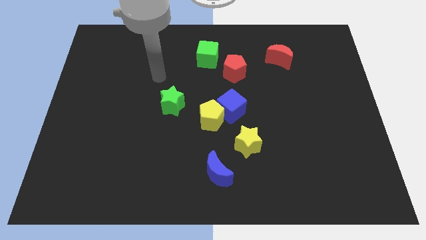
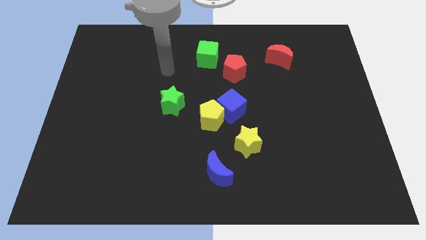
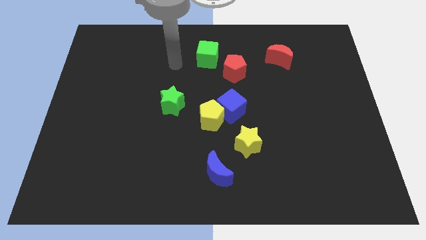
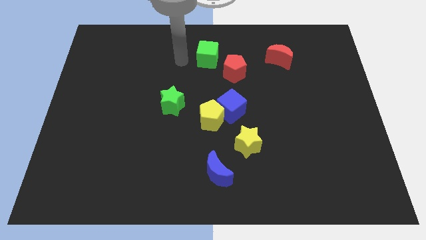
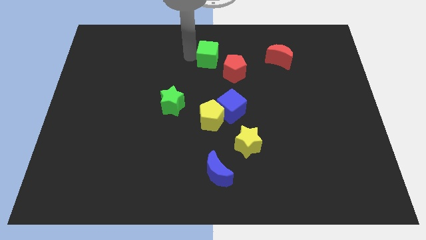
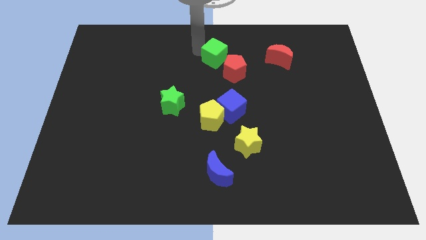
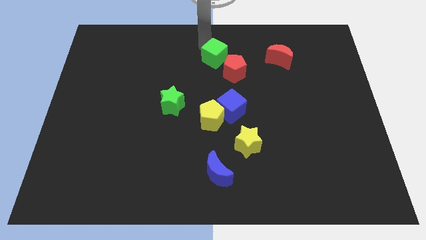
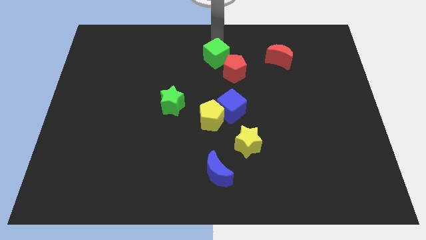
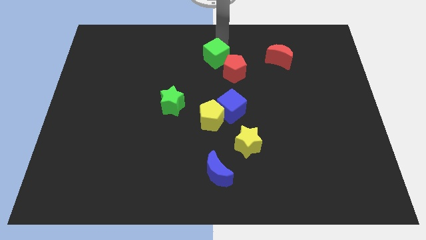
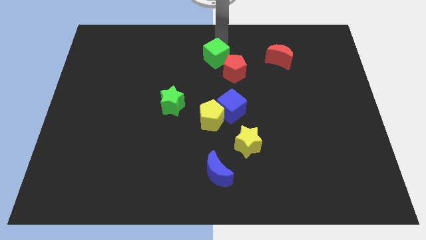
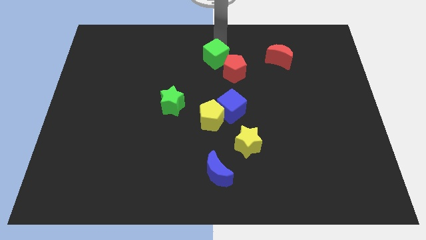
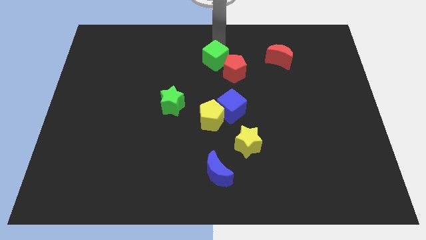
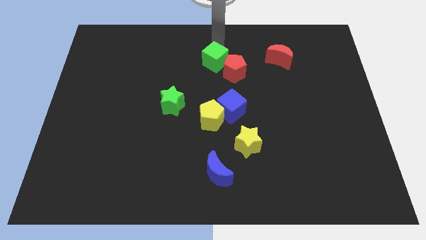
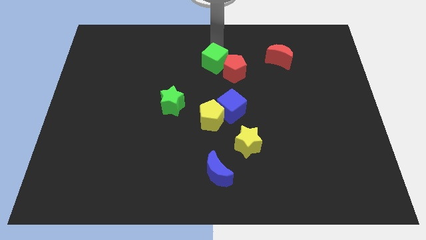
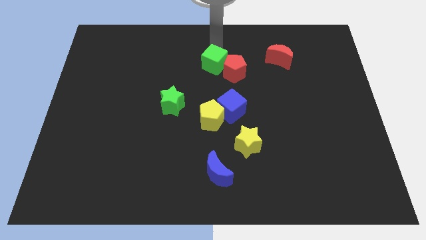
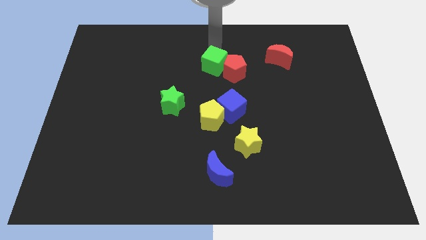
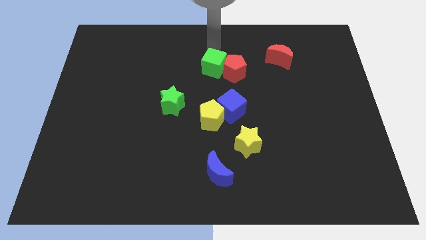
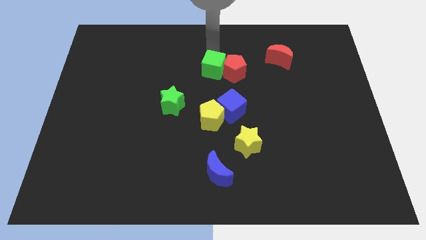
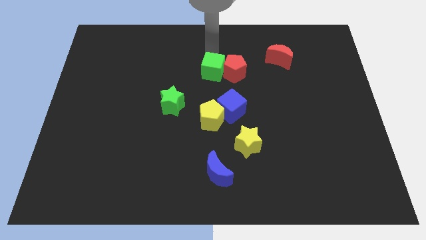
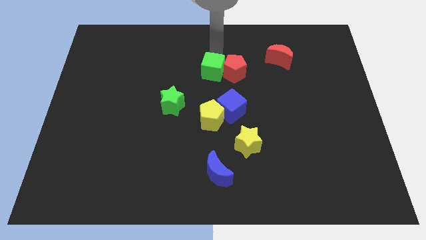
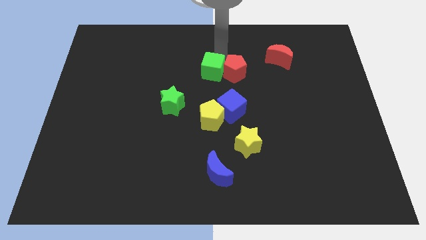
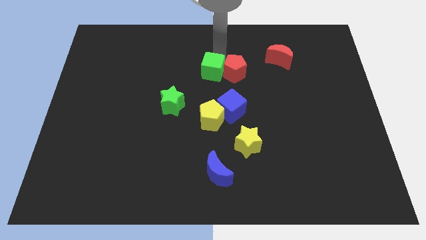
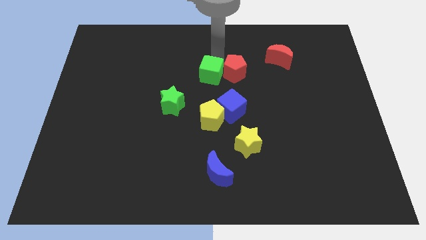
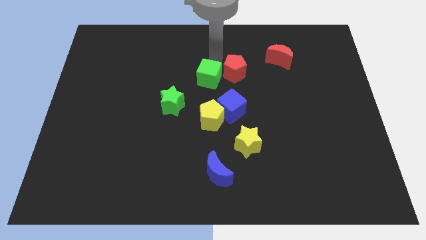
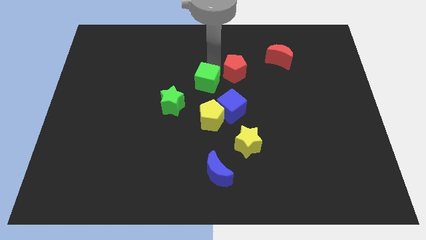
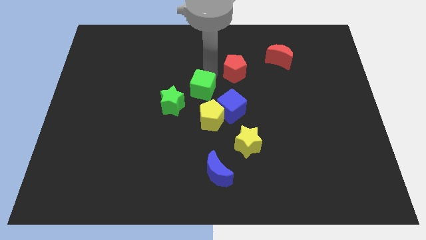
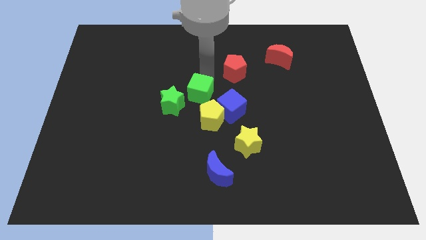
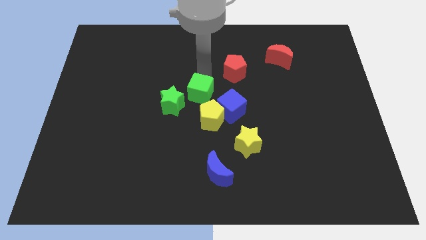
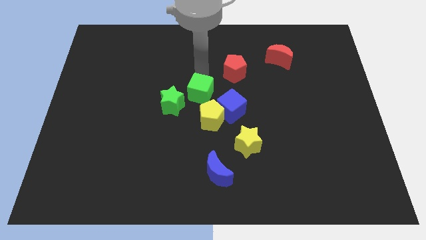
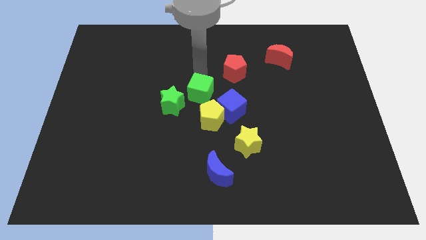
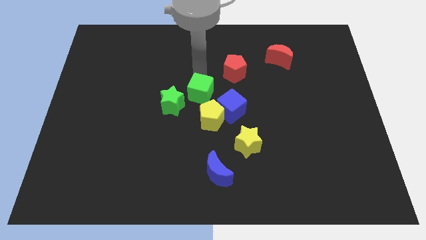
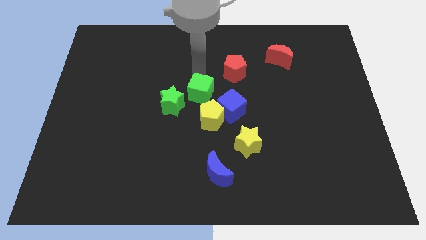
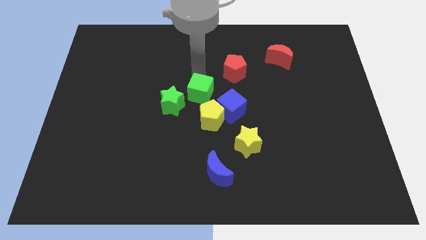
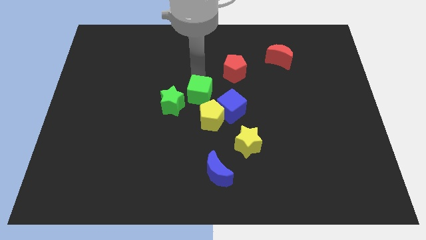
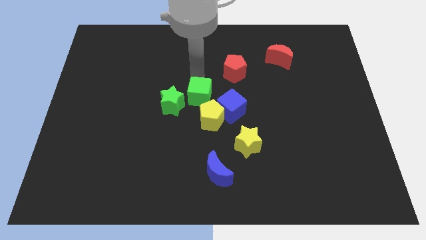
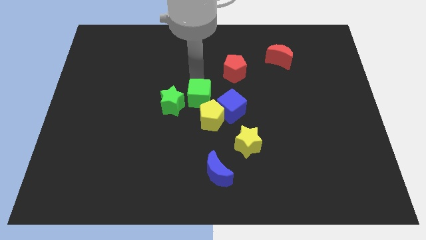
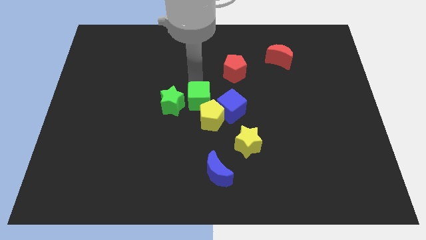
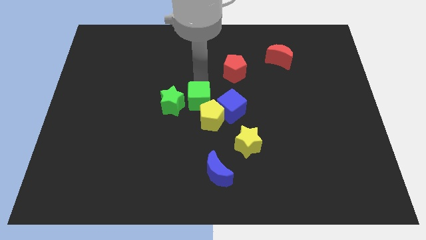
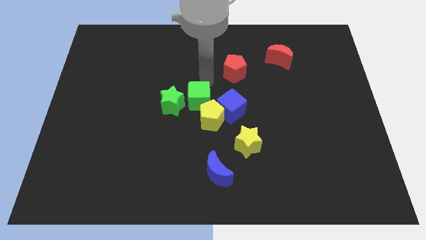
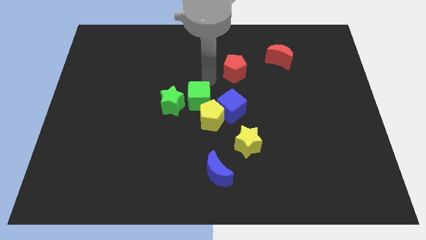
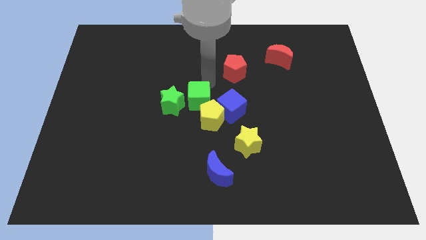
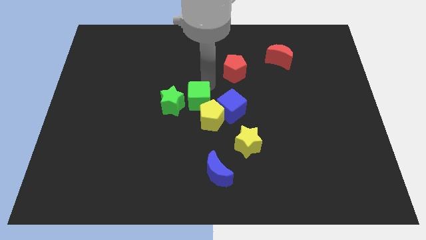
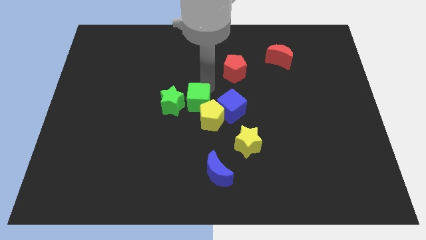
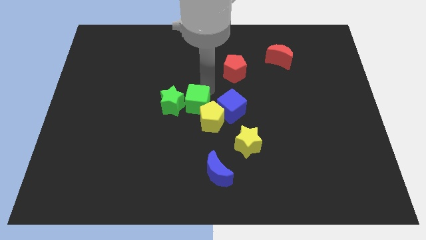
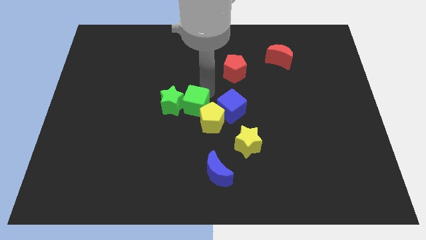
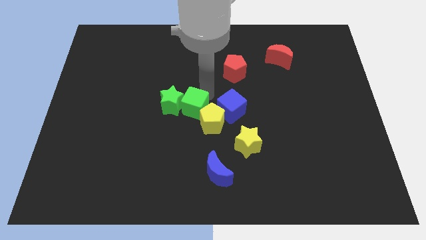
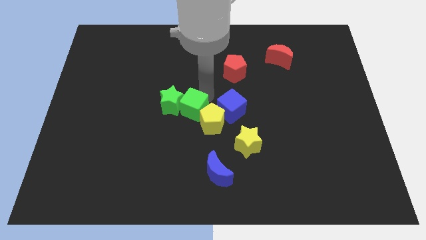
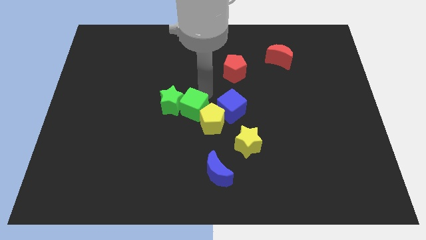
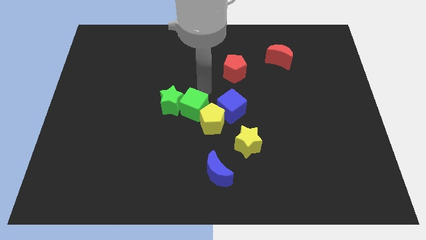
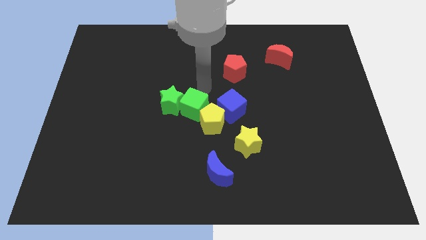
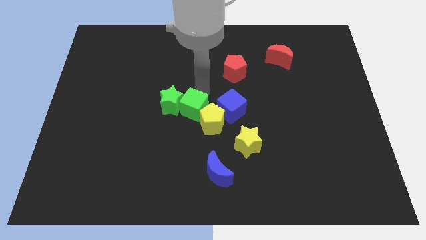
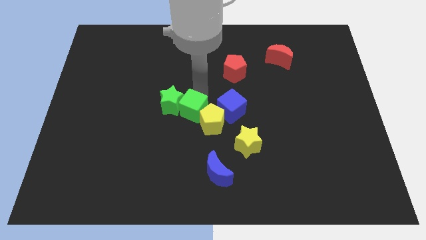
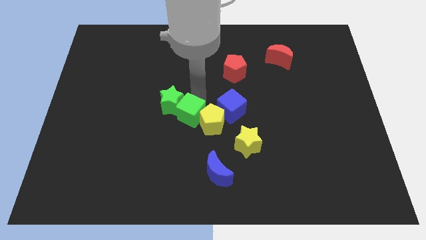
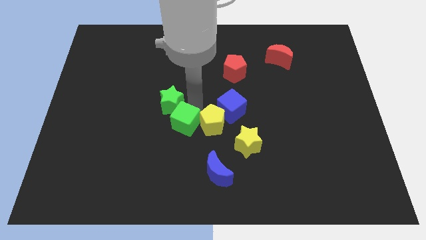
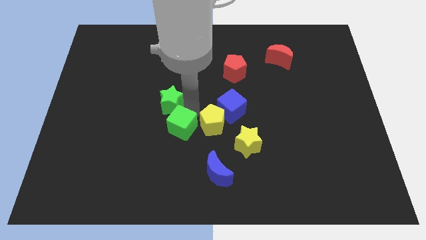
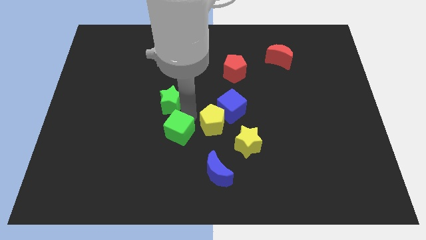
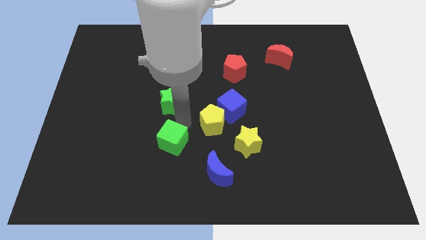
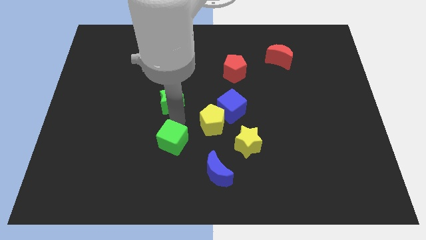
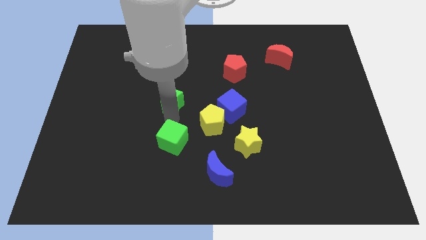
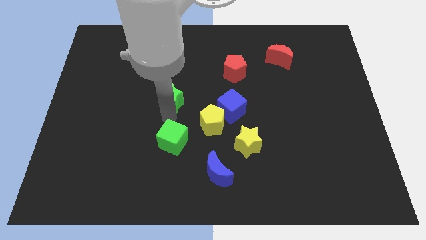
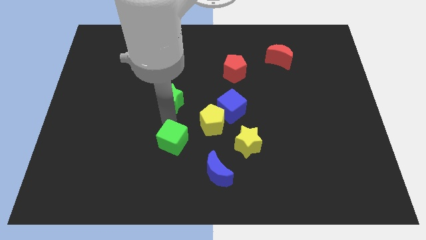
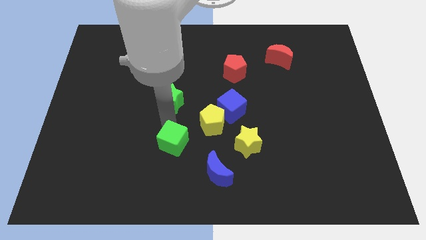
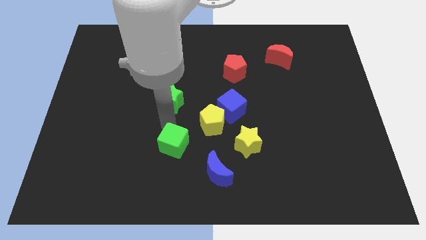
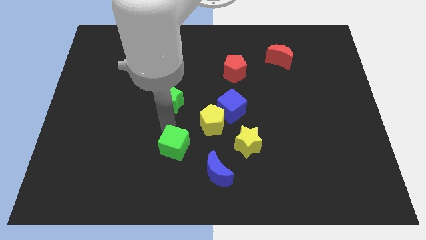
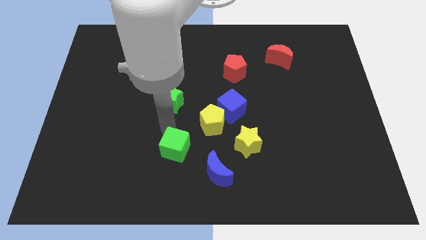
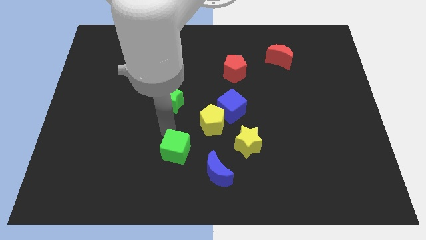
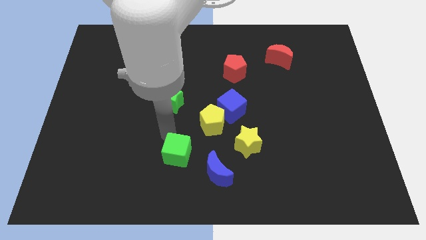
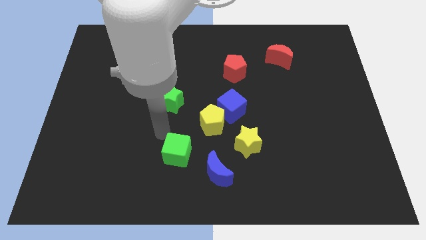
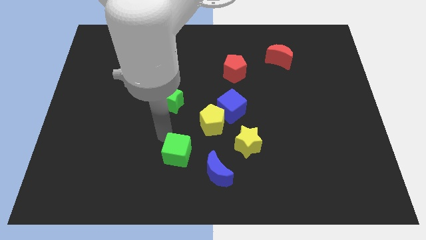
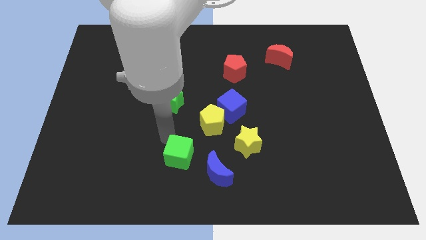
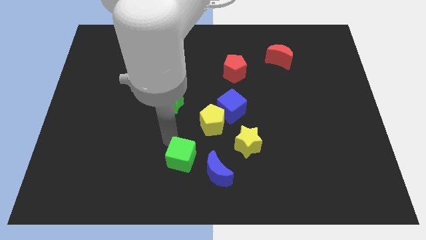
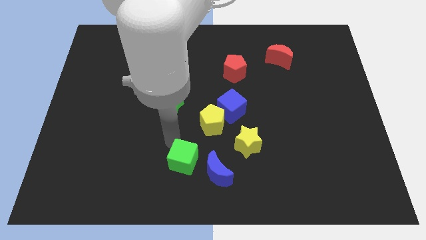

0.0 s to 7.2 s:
put the green cube to the bottom
